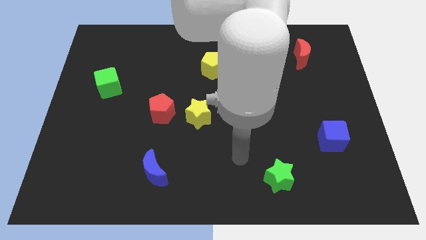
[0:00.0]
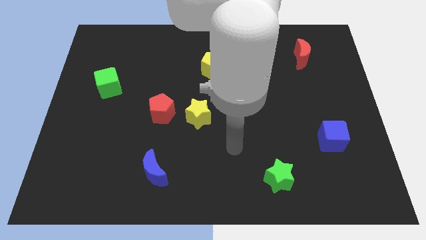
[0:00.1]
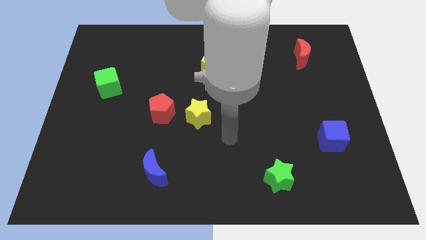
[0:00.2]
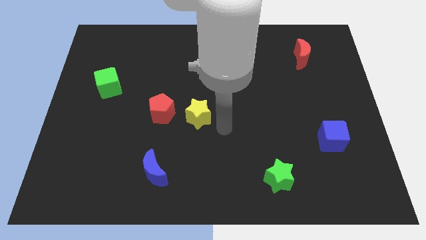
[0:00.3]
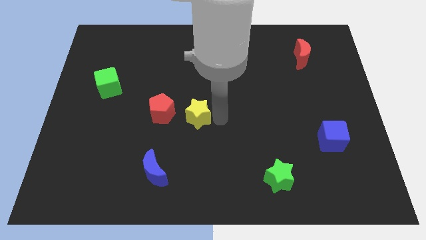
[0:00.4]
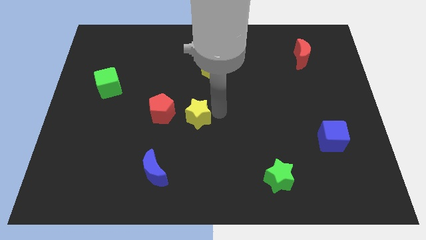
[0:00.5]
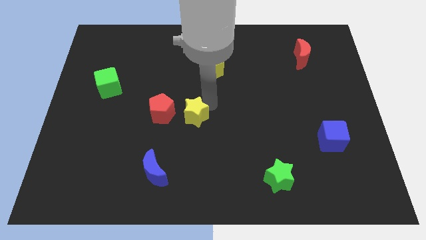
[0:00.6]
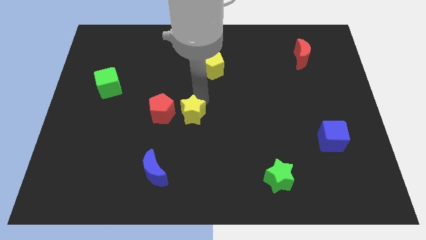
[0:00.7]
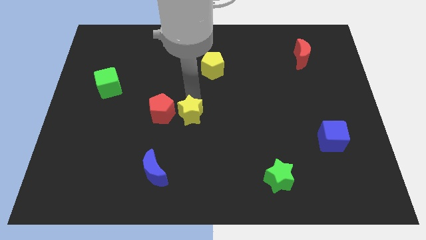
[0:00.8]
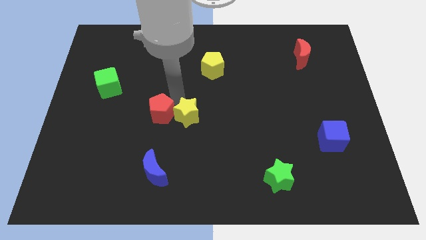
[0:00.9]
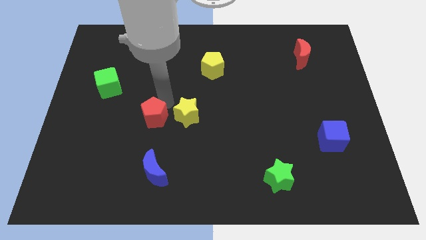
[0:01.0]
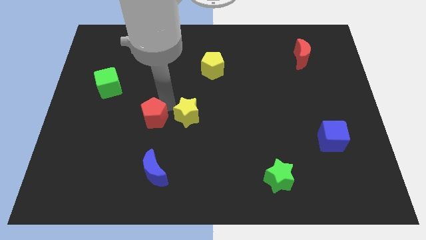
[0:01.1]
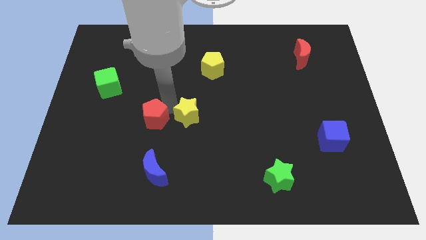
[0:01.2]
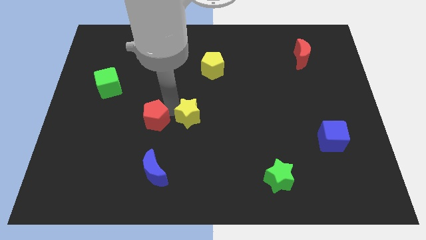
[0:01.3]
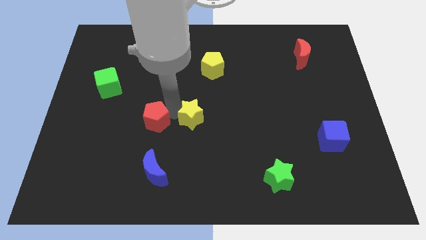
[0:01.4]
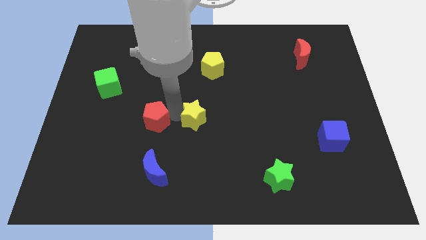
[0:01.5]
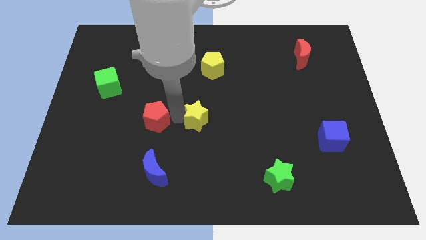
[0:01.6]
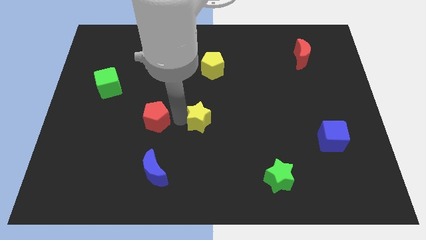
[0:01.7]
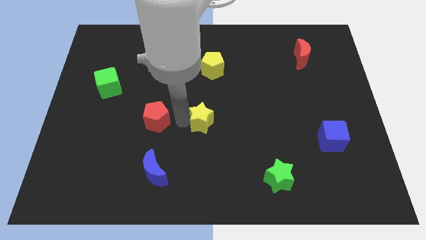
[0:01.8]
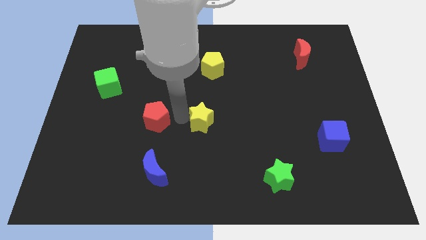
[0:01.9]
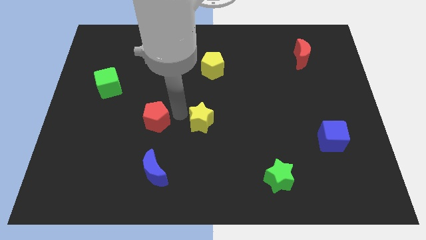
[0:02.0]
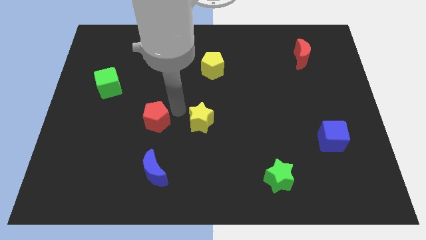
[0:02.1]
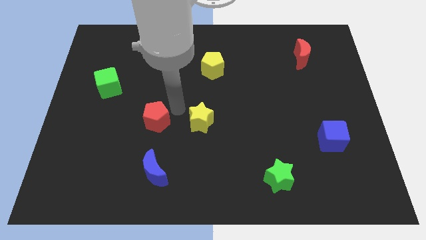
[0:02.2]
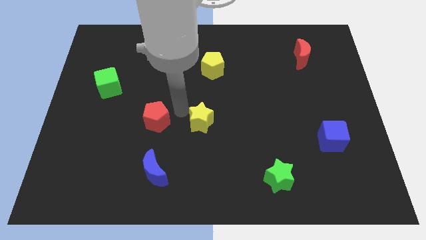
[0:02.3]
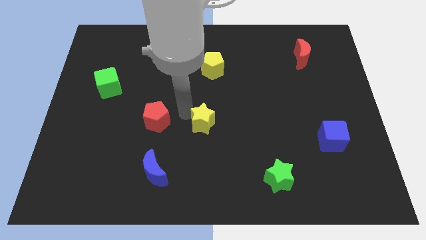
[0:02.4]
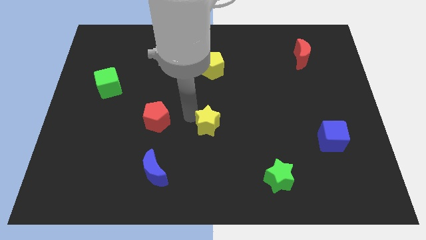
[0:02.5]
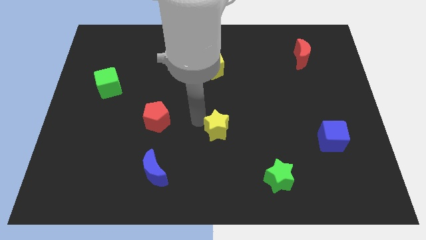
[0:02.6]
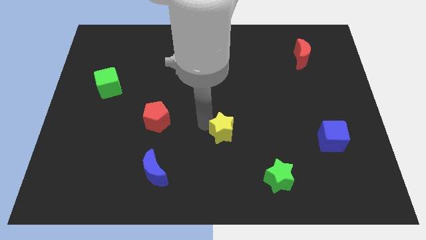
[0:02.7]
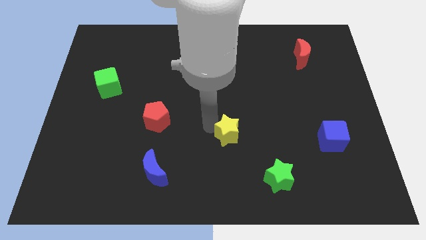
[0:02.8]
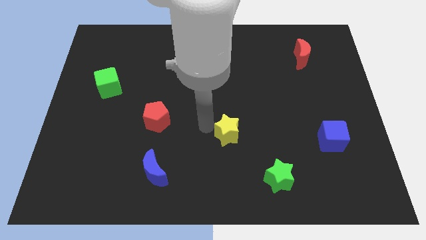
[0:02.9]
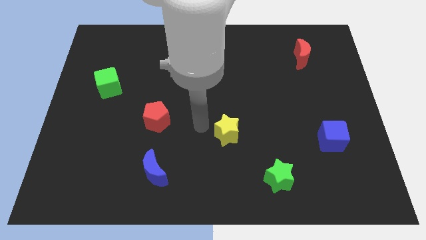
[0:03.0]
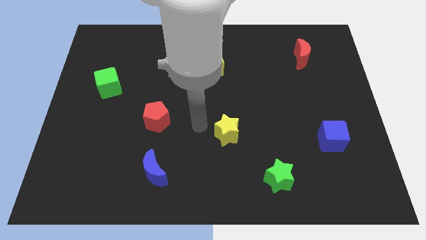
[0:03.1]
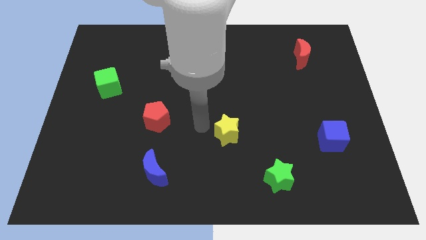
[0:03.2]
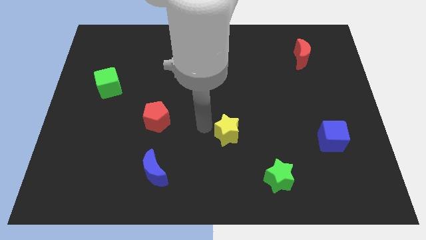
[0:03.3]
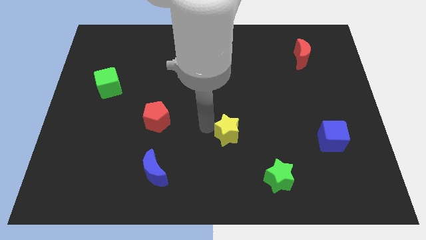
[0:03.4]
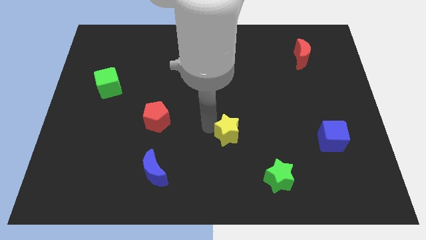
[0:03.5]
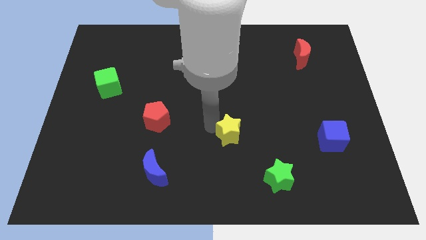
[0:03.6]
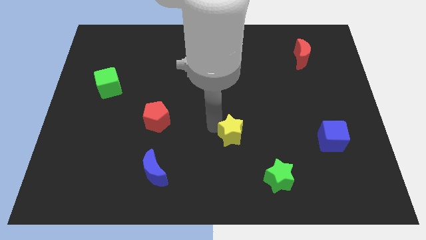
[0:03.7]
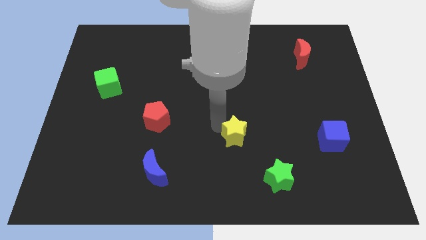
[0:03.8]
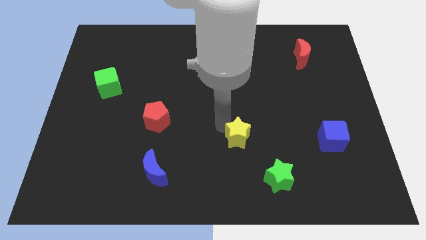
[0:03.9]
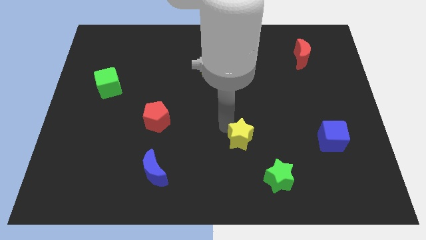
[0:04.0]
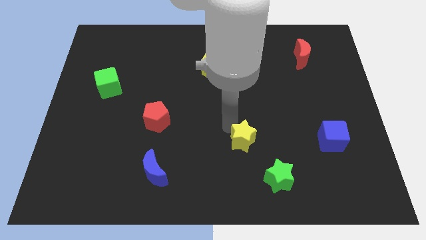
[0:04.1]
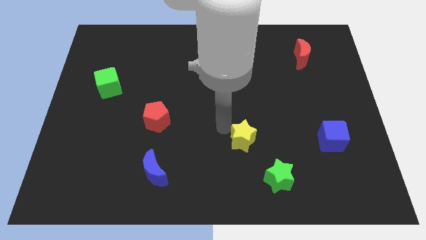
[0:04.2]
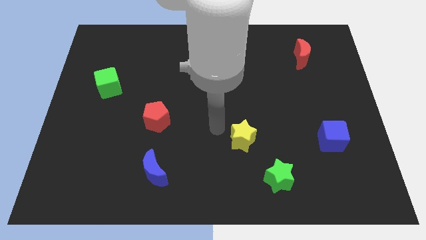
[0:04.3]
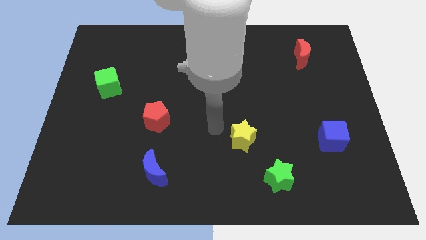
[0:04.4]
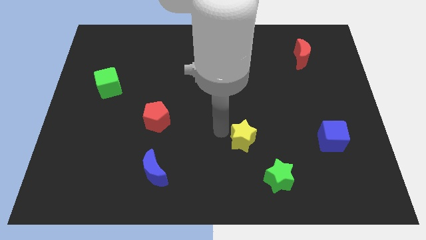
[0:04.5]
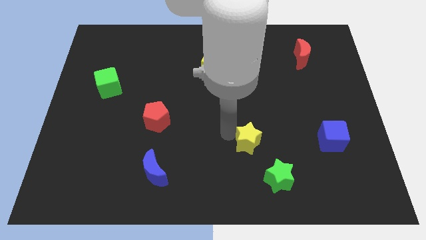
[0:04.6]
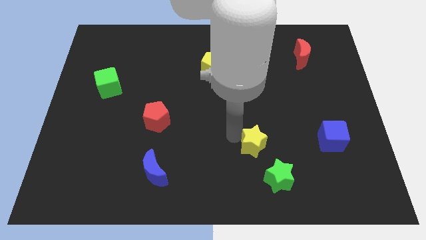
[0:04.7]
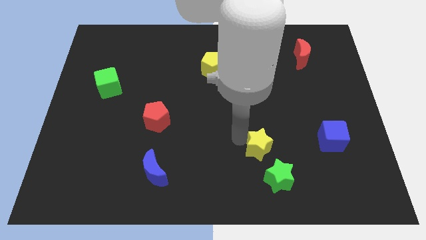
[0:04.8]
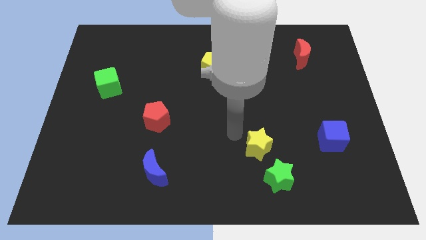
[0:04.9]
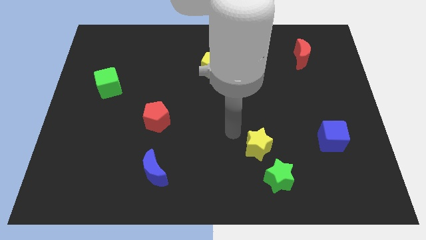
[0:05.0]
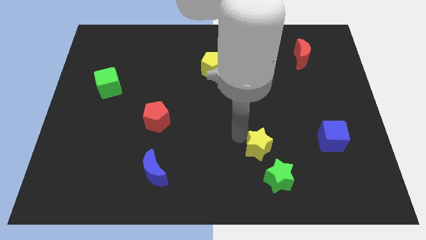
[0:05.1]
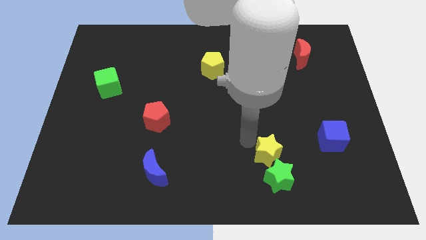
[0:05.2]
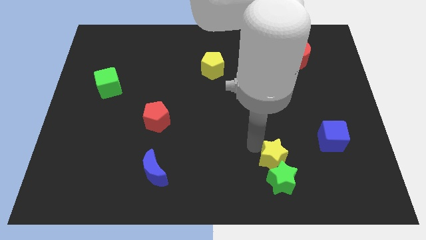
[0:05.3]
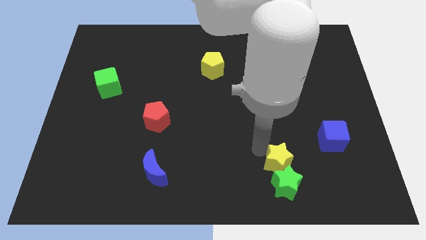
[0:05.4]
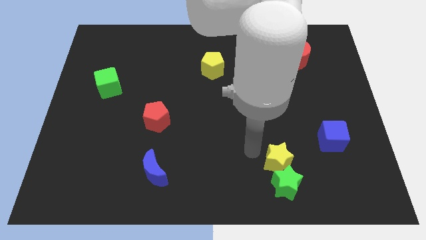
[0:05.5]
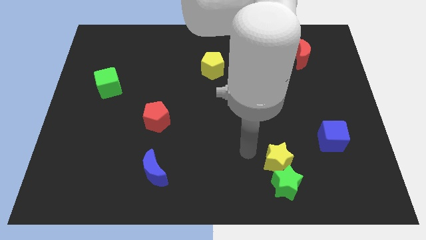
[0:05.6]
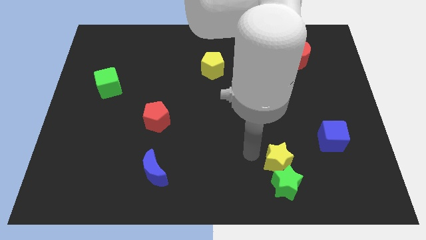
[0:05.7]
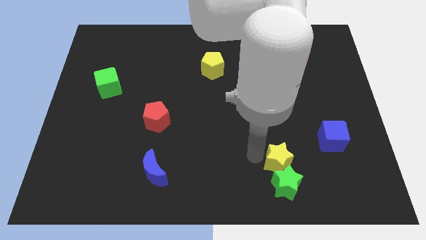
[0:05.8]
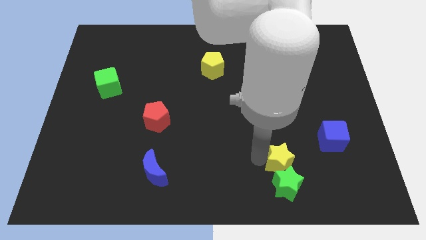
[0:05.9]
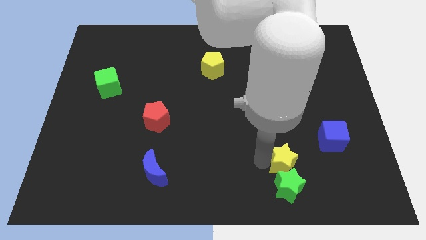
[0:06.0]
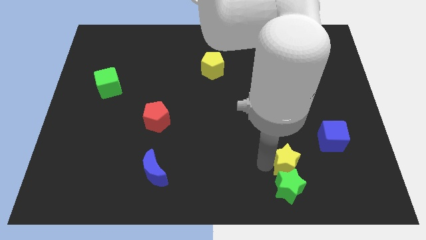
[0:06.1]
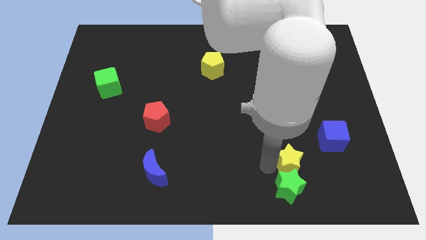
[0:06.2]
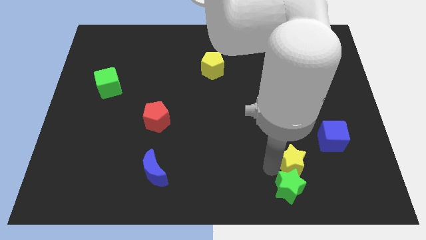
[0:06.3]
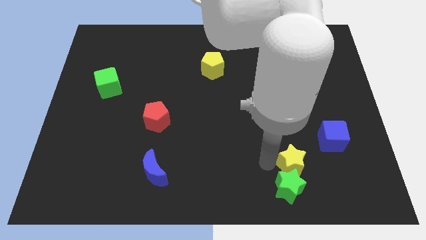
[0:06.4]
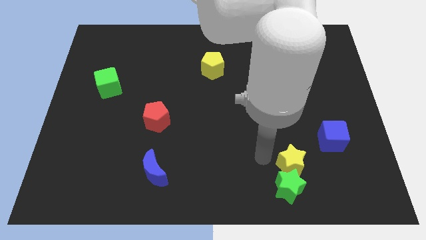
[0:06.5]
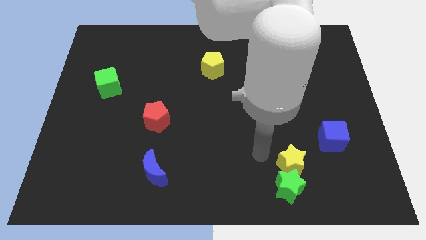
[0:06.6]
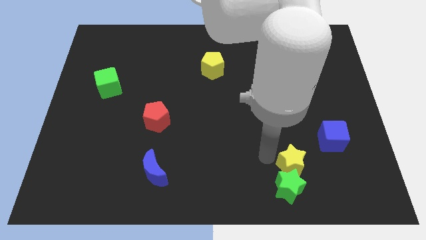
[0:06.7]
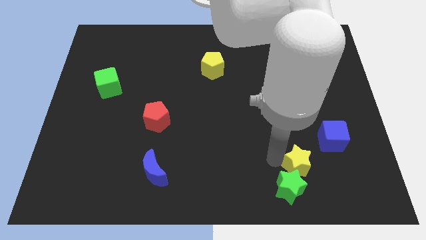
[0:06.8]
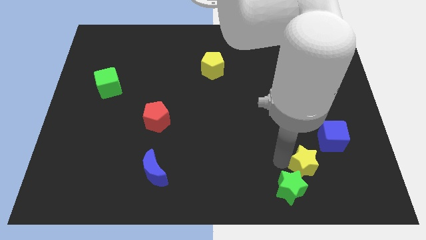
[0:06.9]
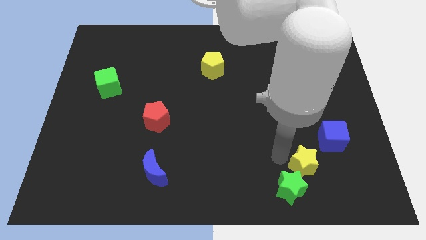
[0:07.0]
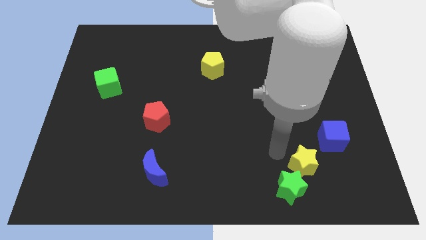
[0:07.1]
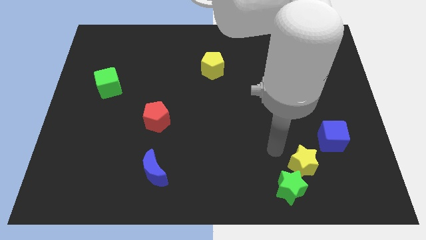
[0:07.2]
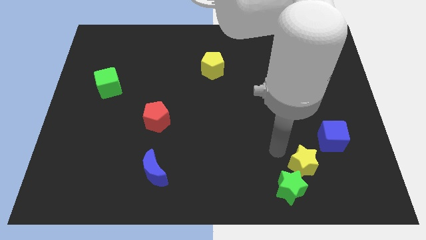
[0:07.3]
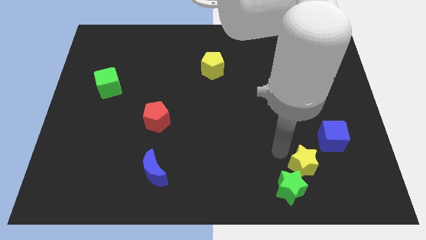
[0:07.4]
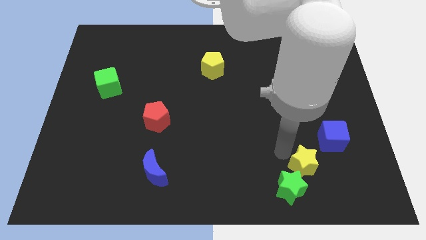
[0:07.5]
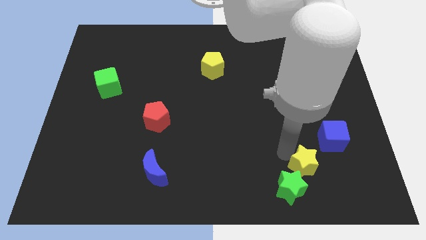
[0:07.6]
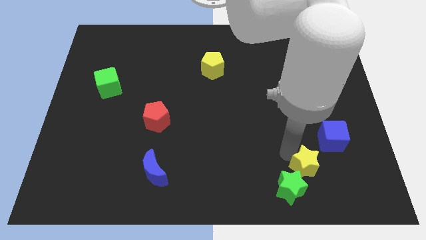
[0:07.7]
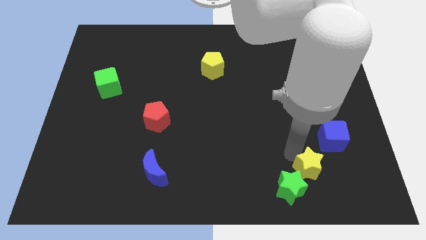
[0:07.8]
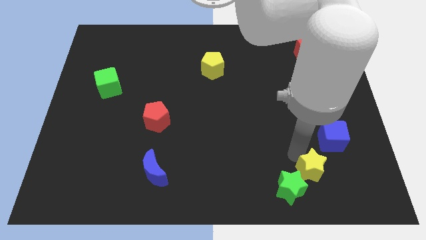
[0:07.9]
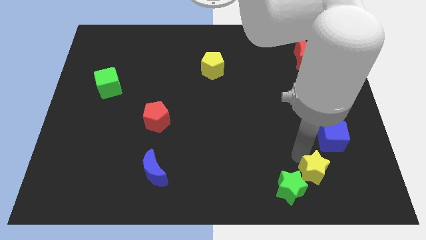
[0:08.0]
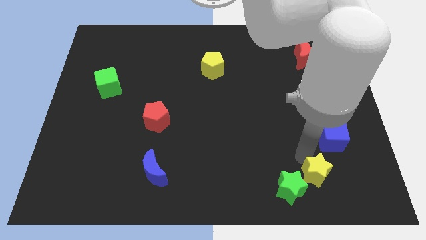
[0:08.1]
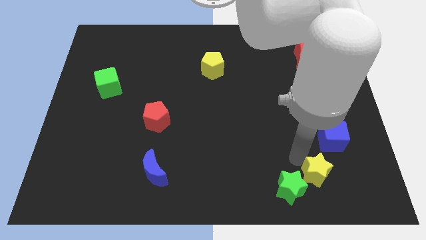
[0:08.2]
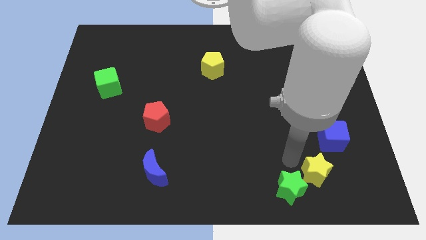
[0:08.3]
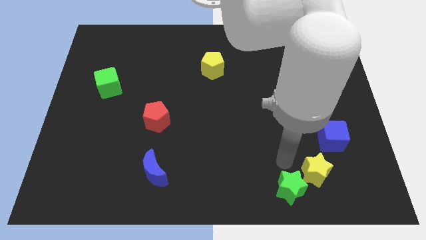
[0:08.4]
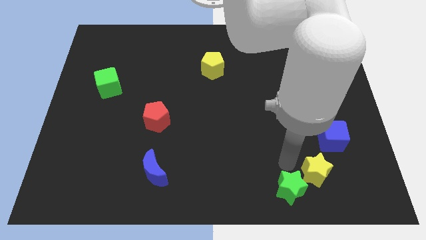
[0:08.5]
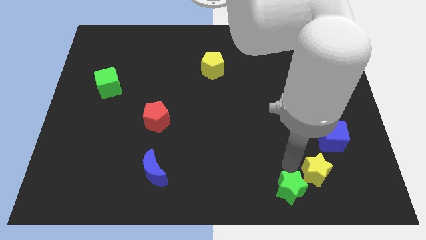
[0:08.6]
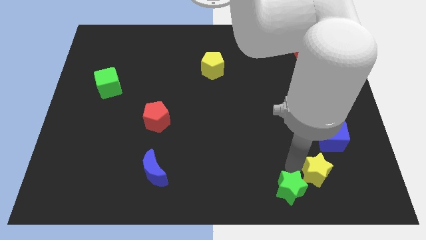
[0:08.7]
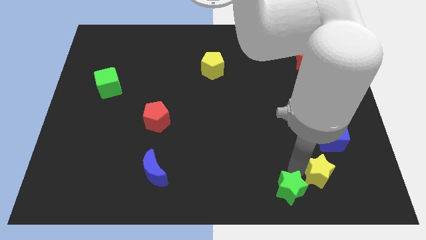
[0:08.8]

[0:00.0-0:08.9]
slide the yellow star to the bottom of the blue cube
